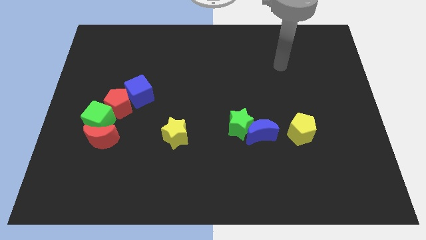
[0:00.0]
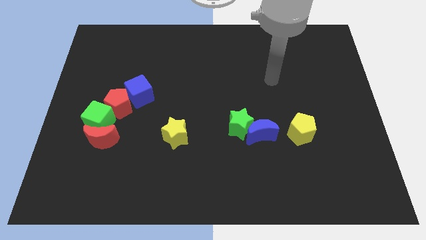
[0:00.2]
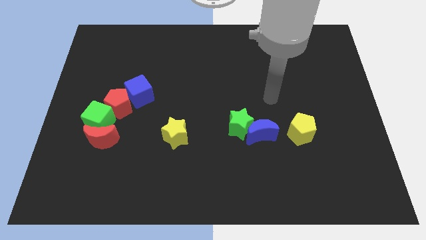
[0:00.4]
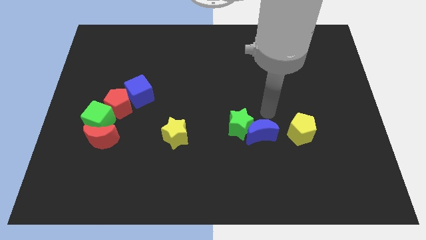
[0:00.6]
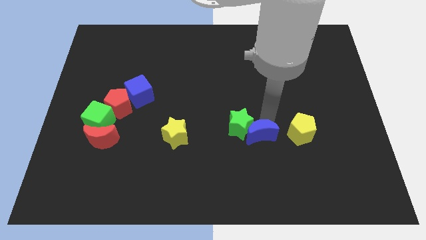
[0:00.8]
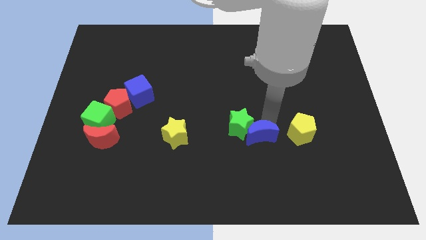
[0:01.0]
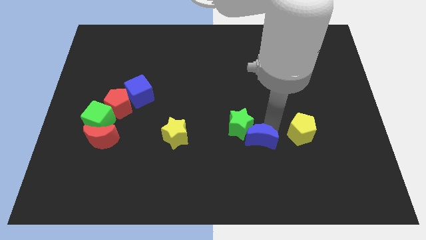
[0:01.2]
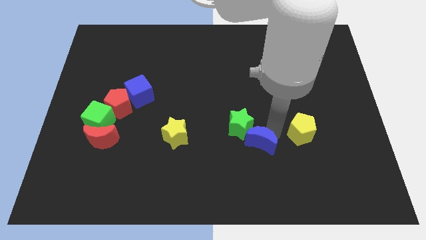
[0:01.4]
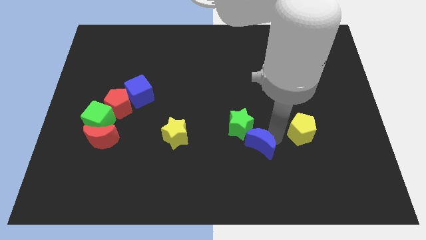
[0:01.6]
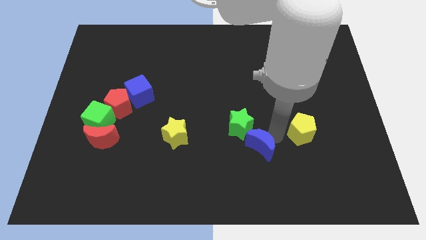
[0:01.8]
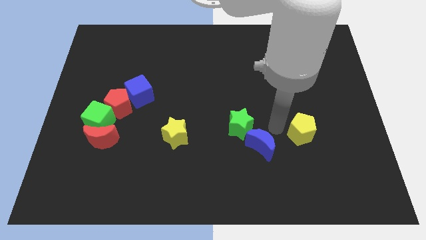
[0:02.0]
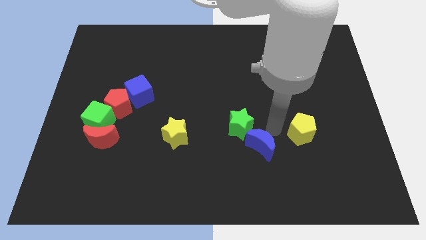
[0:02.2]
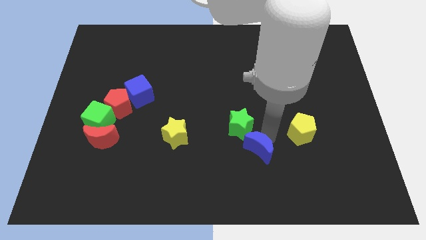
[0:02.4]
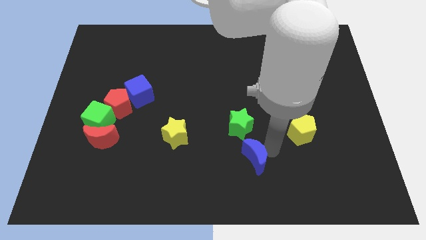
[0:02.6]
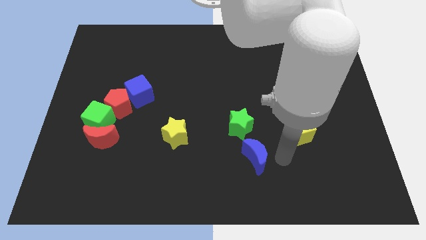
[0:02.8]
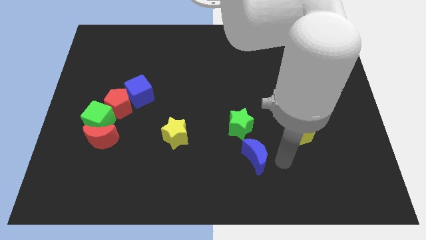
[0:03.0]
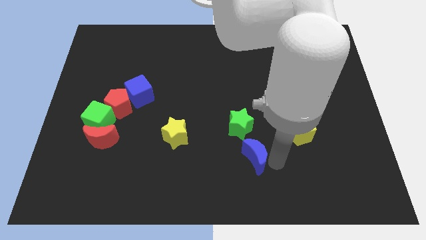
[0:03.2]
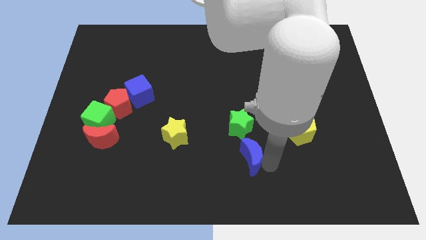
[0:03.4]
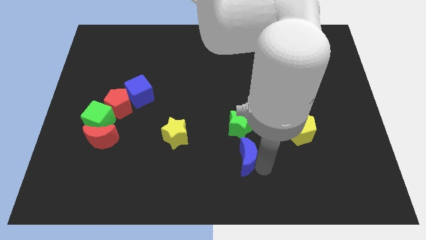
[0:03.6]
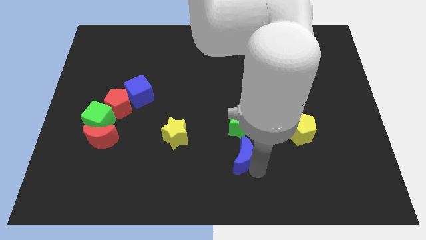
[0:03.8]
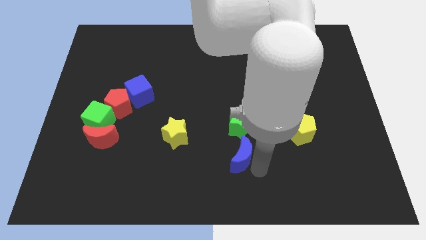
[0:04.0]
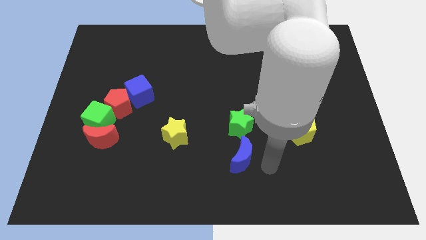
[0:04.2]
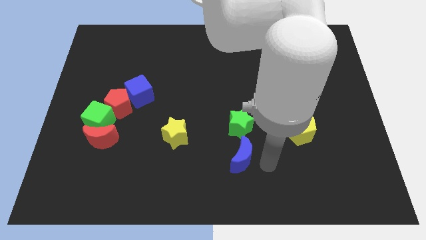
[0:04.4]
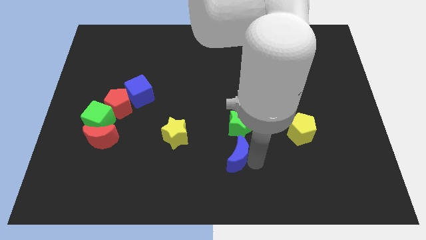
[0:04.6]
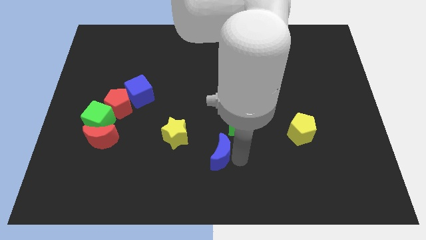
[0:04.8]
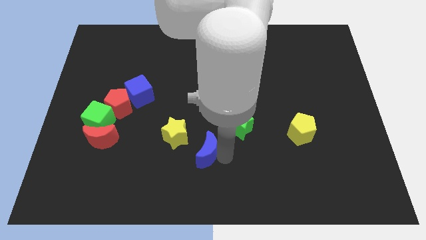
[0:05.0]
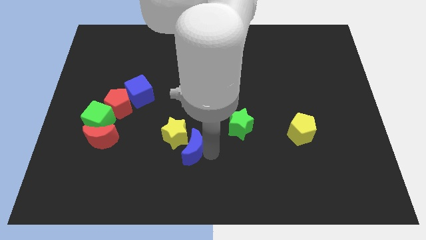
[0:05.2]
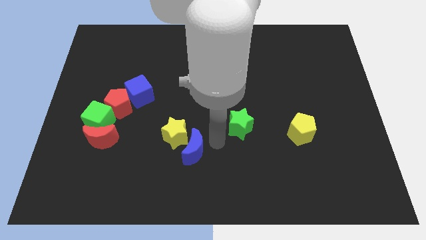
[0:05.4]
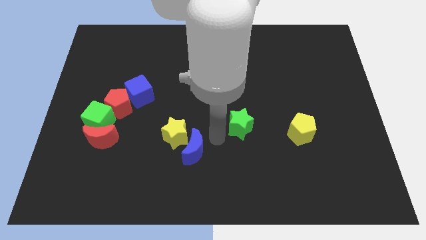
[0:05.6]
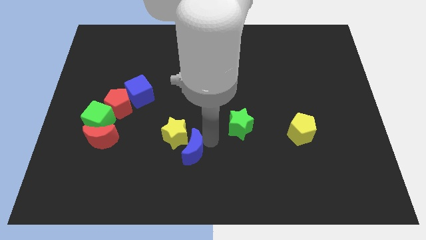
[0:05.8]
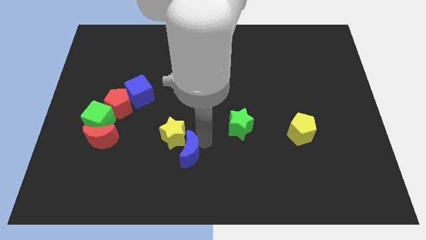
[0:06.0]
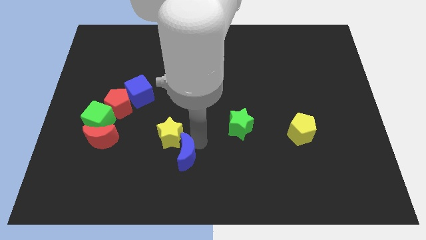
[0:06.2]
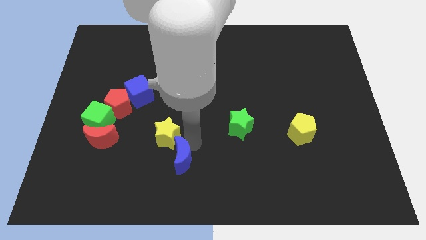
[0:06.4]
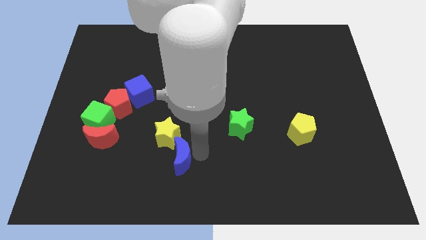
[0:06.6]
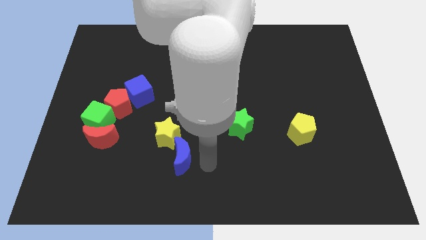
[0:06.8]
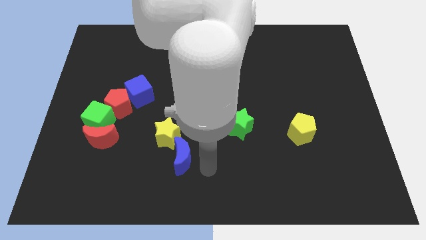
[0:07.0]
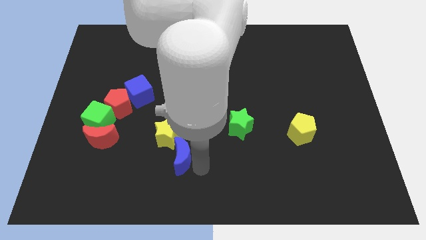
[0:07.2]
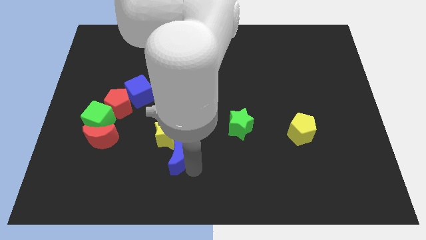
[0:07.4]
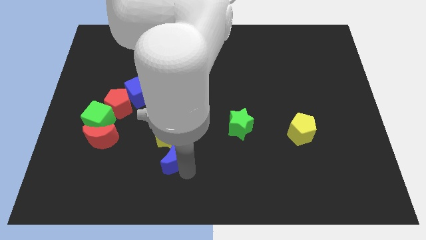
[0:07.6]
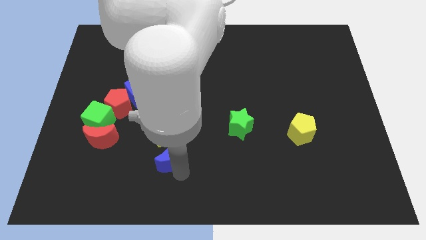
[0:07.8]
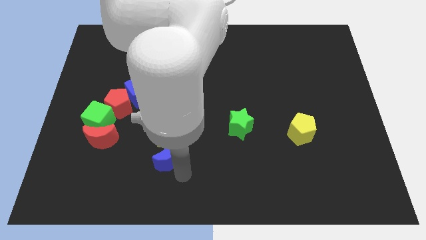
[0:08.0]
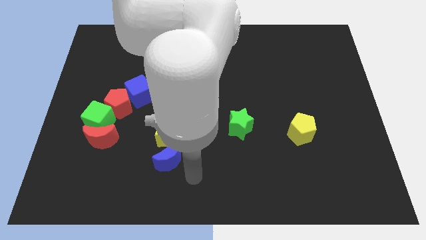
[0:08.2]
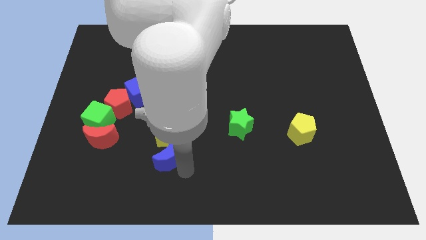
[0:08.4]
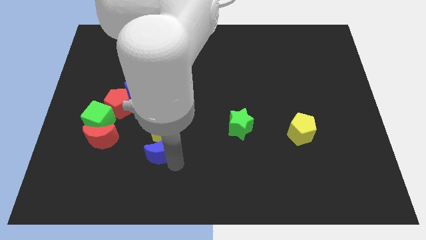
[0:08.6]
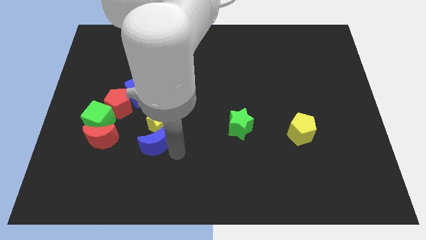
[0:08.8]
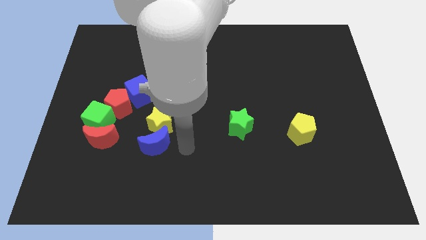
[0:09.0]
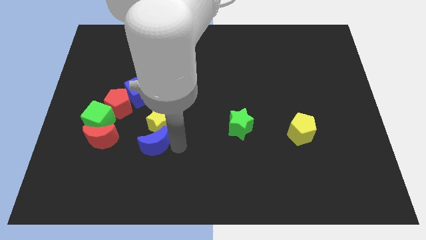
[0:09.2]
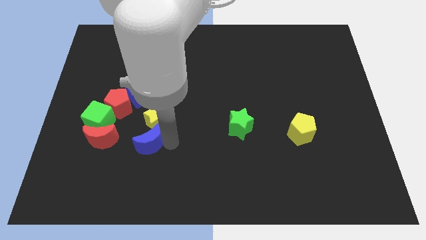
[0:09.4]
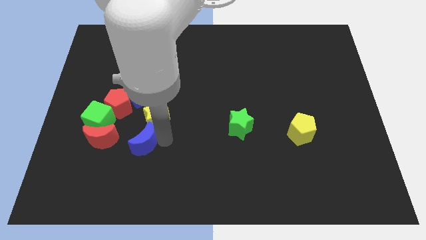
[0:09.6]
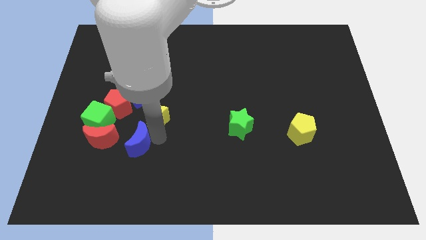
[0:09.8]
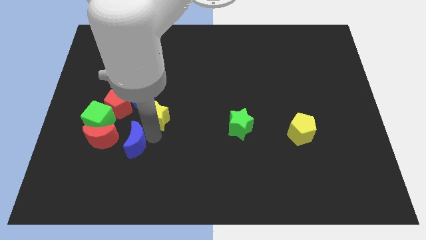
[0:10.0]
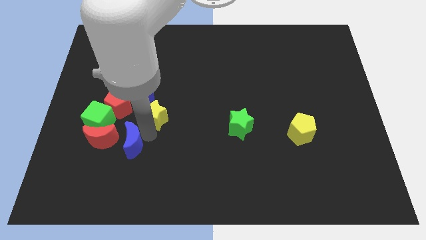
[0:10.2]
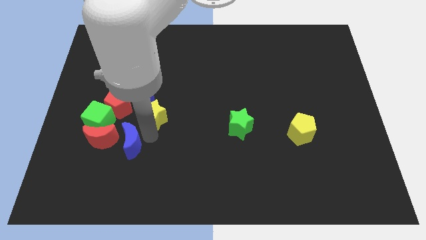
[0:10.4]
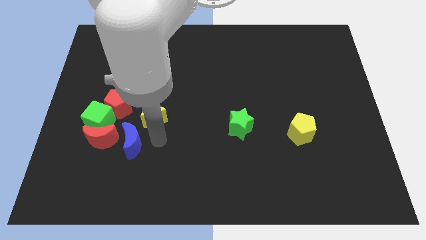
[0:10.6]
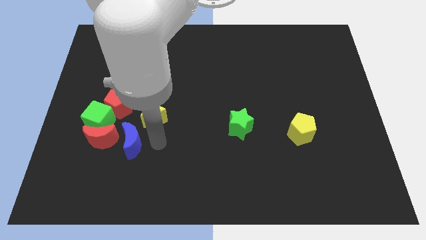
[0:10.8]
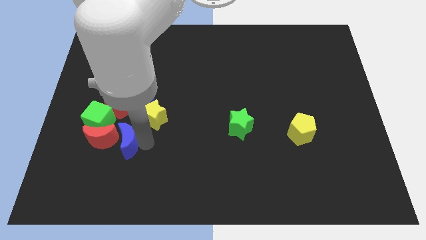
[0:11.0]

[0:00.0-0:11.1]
slide the blue moon towards the red moon
